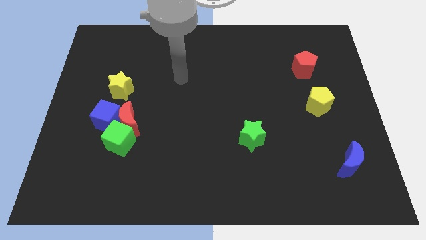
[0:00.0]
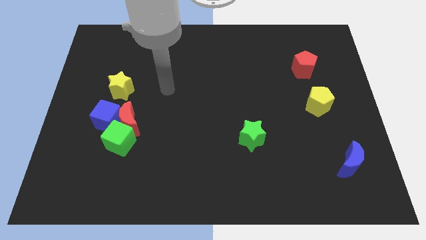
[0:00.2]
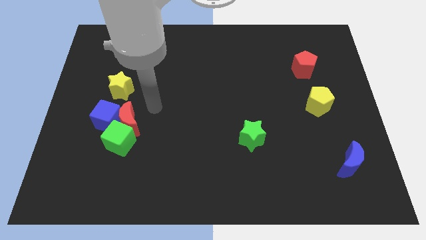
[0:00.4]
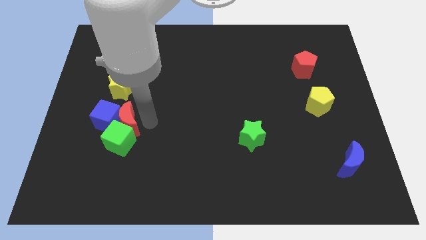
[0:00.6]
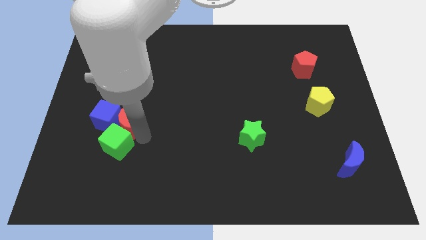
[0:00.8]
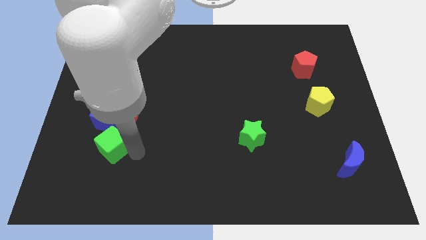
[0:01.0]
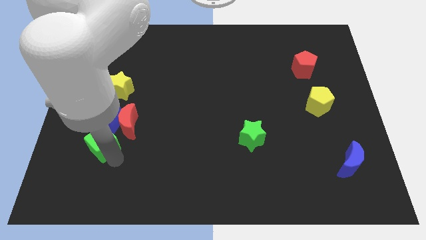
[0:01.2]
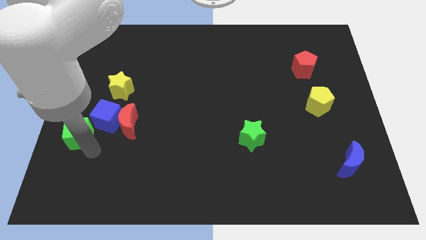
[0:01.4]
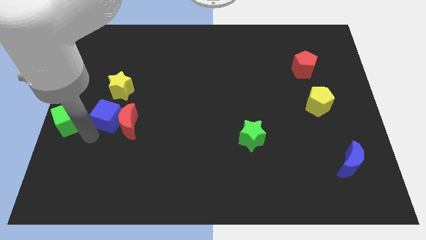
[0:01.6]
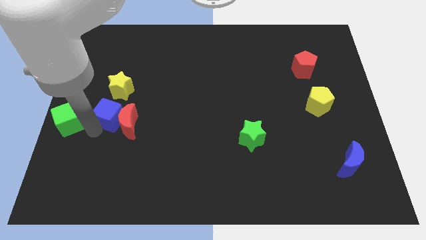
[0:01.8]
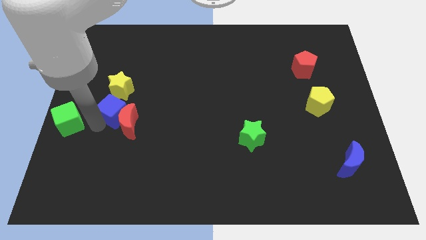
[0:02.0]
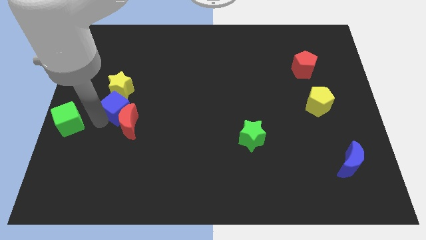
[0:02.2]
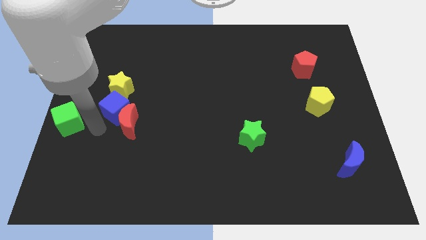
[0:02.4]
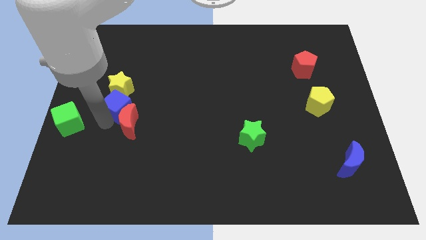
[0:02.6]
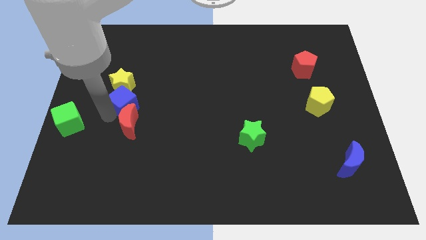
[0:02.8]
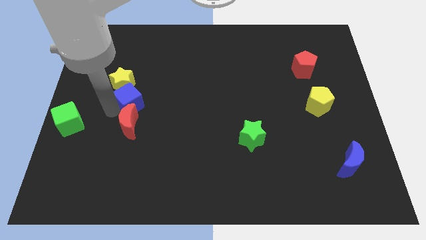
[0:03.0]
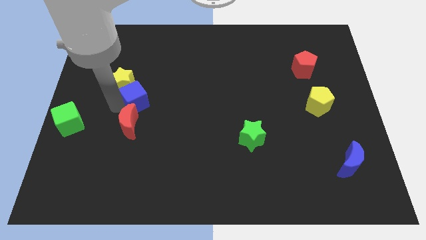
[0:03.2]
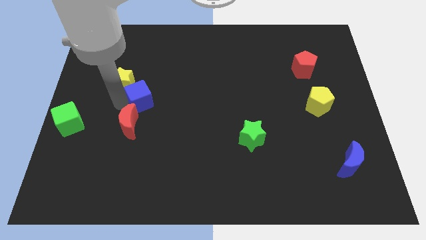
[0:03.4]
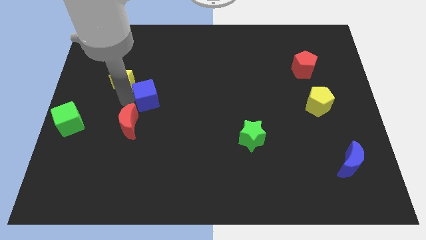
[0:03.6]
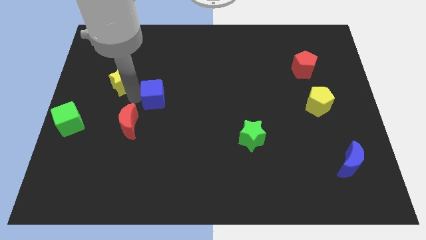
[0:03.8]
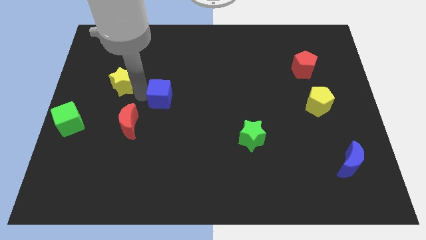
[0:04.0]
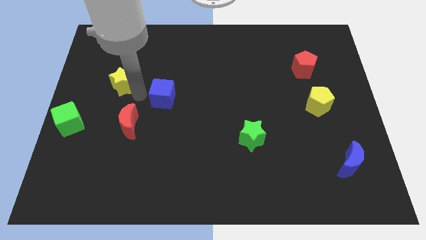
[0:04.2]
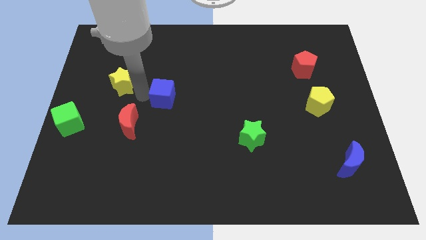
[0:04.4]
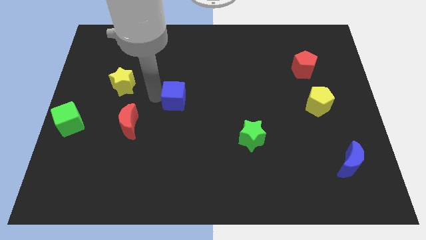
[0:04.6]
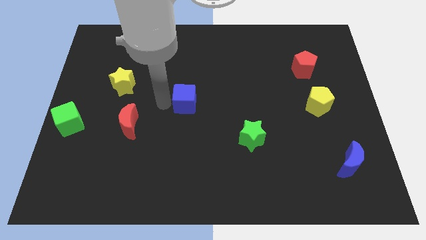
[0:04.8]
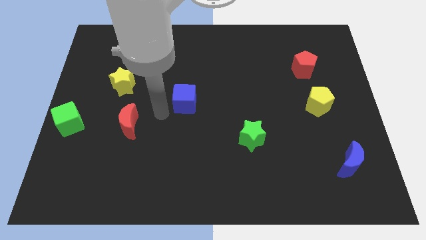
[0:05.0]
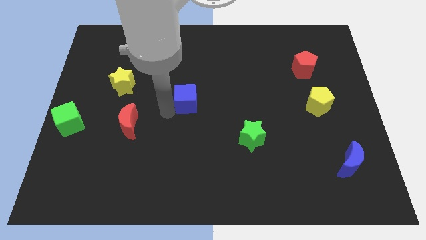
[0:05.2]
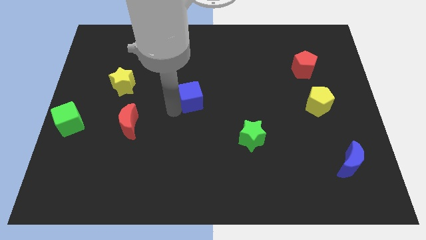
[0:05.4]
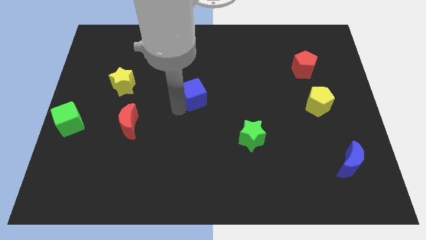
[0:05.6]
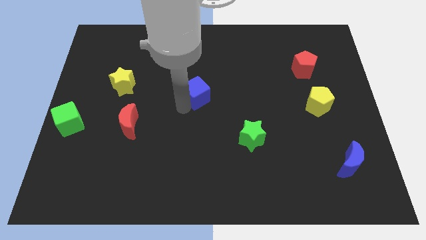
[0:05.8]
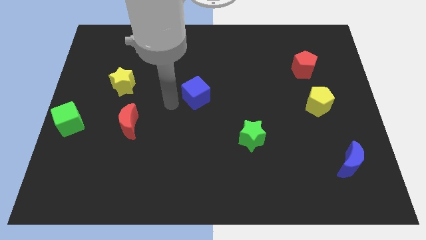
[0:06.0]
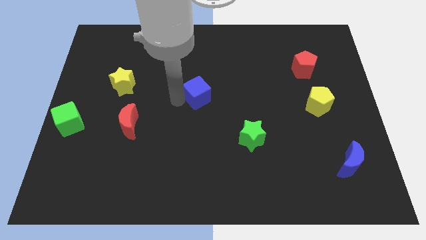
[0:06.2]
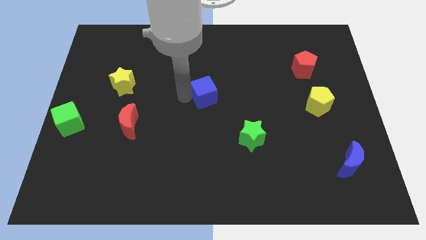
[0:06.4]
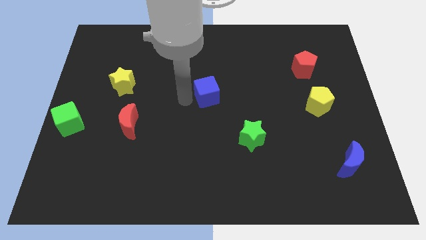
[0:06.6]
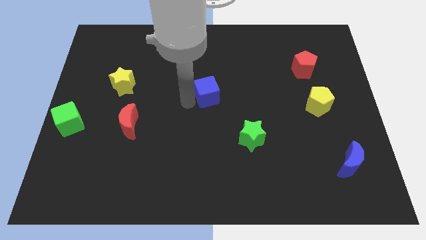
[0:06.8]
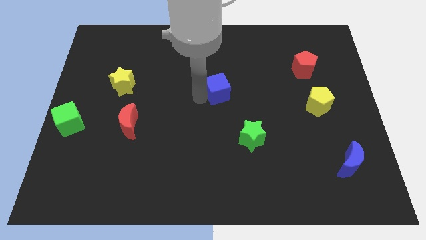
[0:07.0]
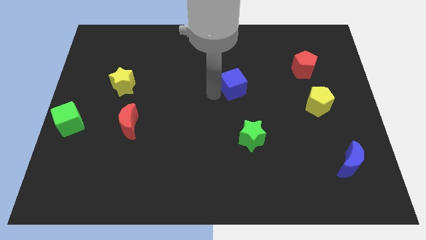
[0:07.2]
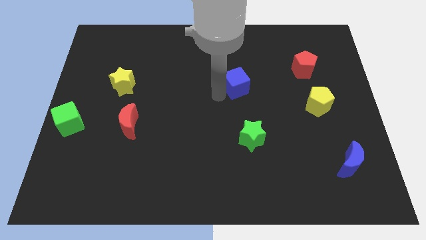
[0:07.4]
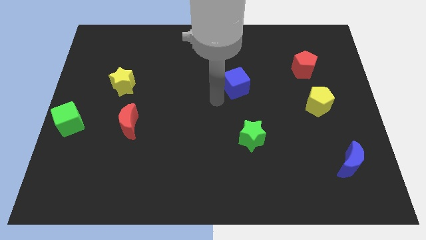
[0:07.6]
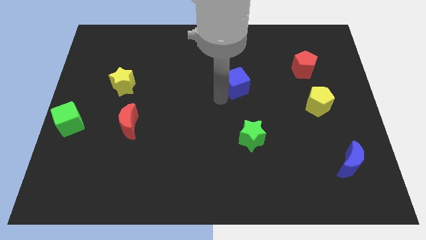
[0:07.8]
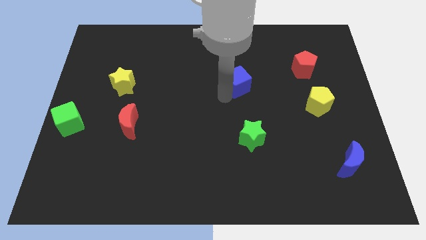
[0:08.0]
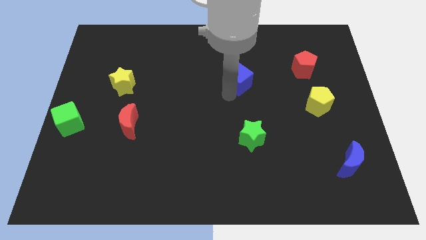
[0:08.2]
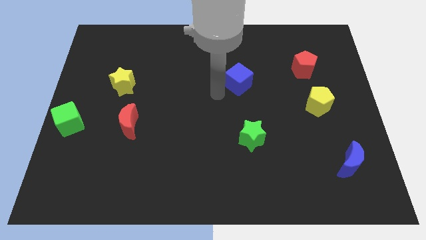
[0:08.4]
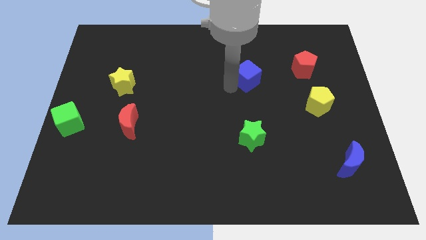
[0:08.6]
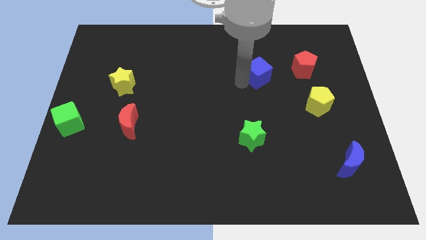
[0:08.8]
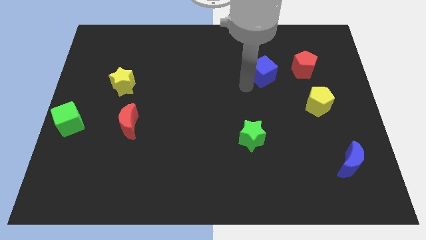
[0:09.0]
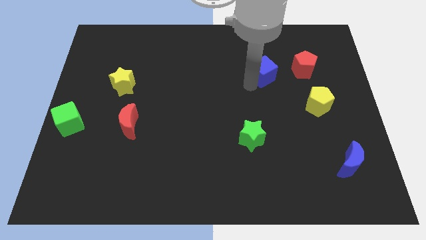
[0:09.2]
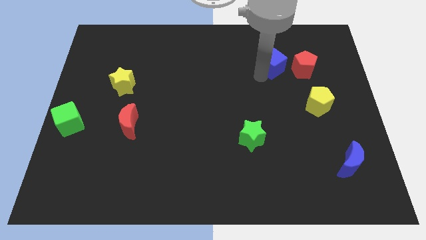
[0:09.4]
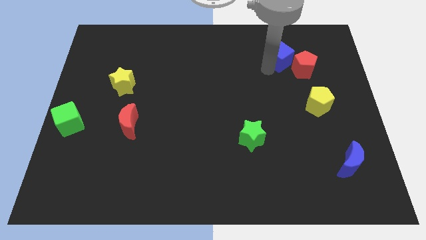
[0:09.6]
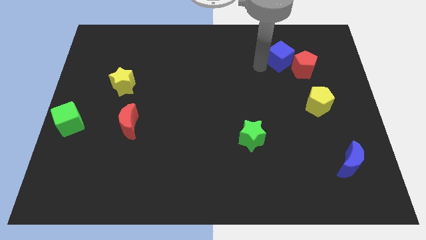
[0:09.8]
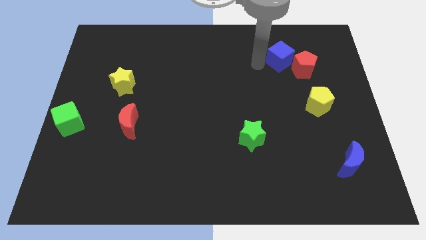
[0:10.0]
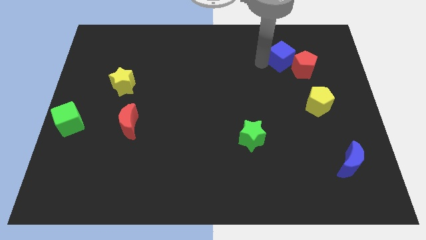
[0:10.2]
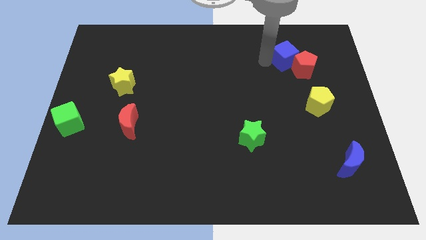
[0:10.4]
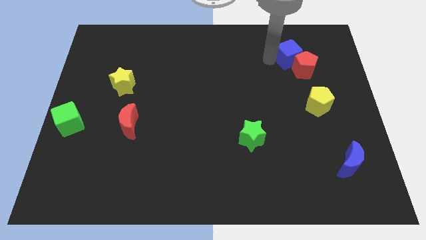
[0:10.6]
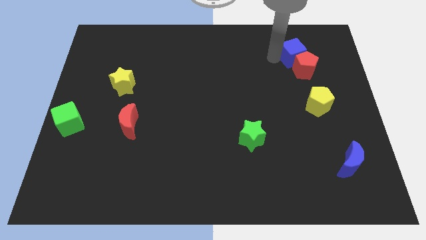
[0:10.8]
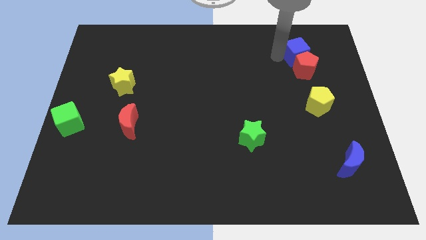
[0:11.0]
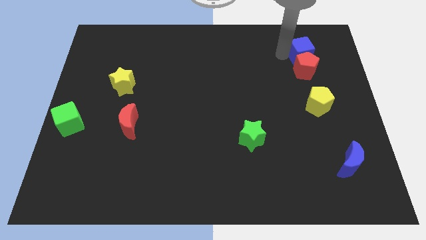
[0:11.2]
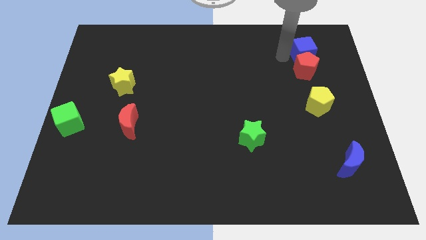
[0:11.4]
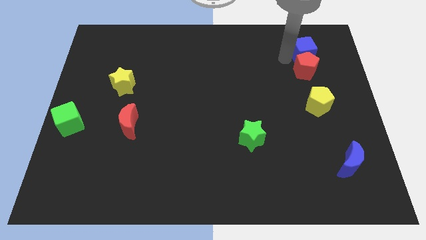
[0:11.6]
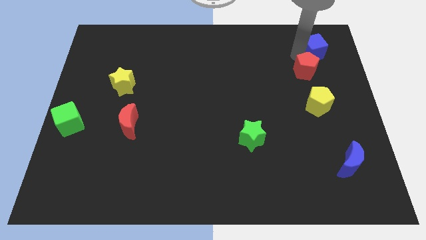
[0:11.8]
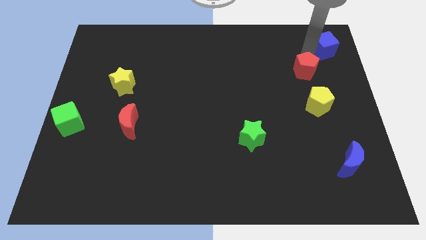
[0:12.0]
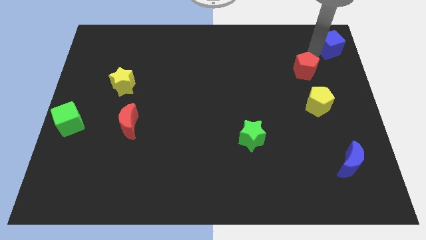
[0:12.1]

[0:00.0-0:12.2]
slide the blue cube to the upper right corner

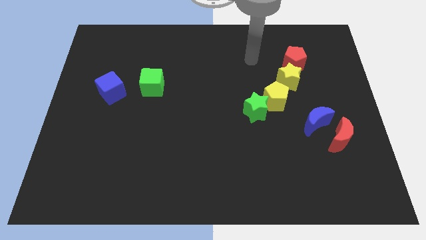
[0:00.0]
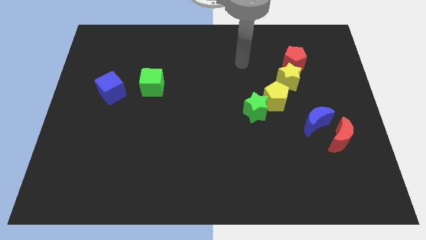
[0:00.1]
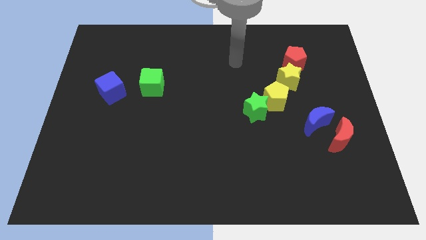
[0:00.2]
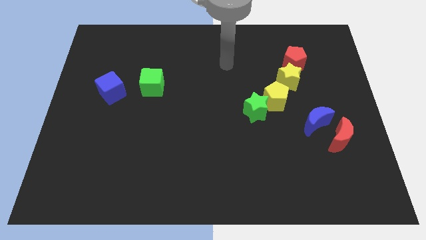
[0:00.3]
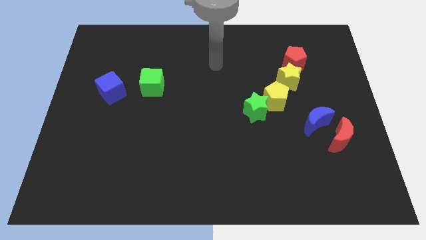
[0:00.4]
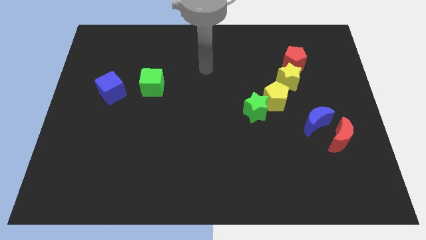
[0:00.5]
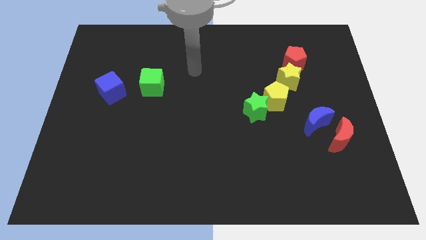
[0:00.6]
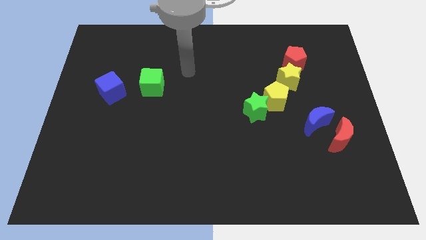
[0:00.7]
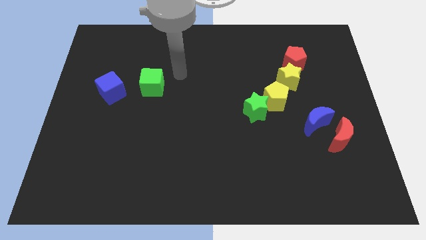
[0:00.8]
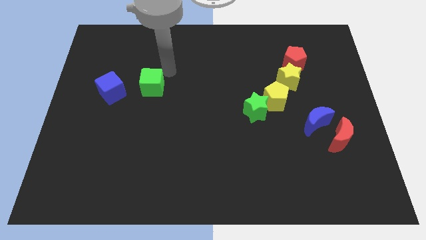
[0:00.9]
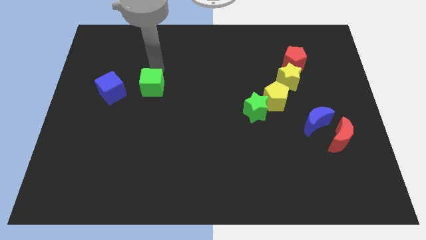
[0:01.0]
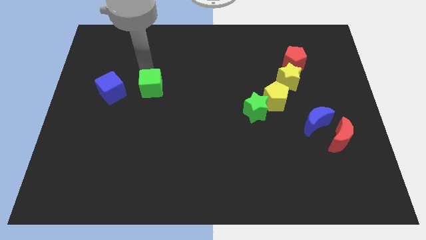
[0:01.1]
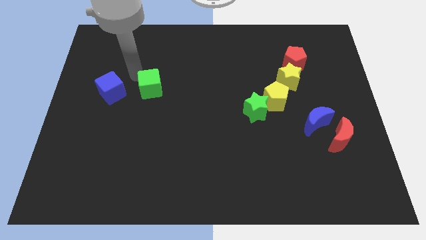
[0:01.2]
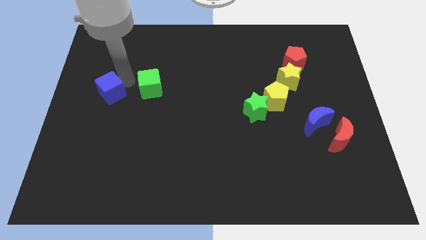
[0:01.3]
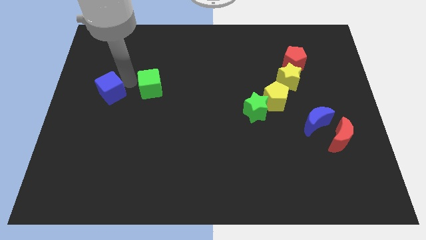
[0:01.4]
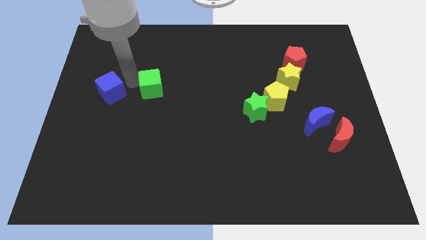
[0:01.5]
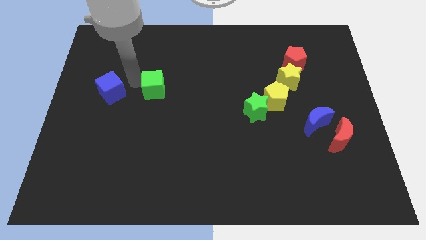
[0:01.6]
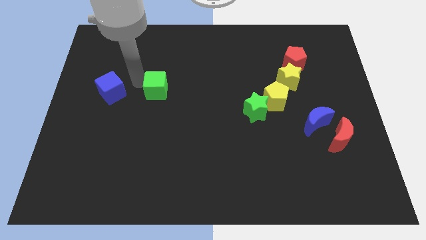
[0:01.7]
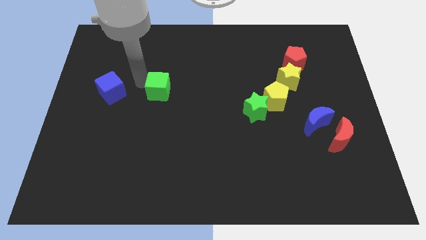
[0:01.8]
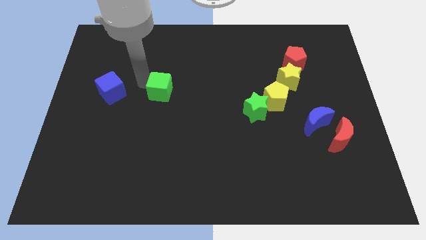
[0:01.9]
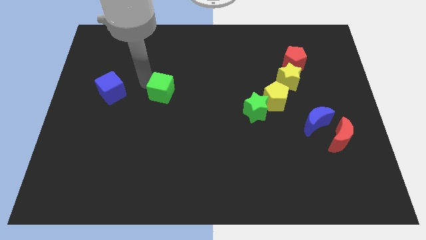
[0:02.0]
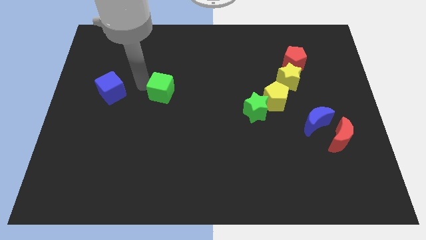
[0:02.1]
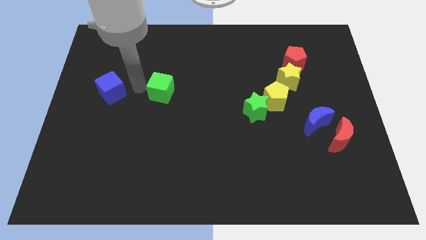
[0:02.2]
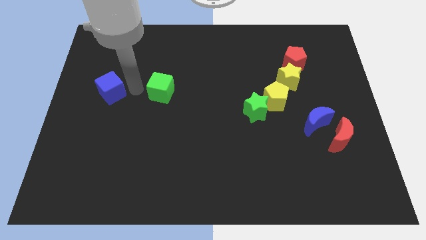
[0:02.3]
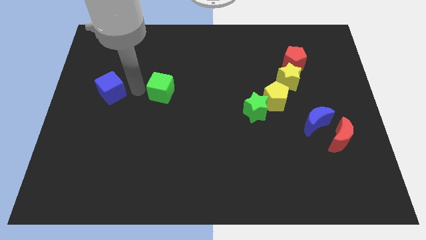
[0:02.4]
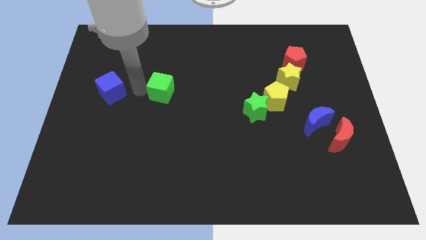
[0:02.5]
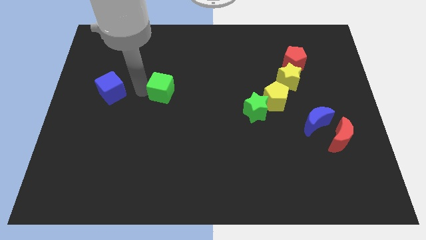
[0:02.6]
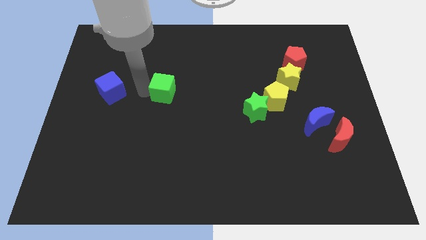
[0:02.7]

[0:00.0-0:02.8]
put the green cube to the middle
